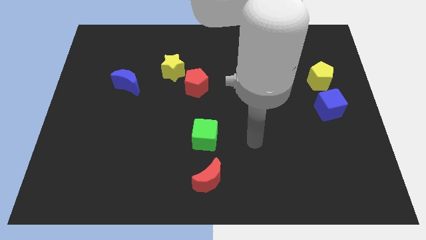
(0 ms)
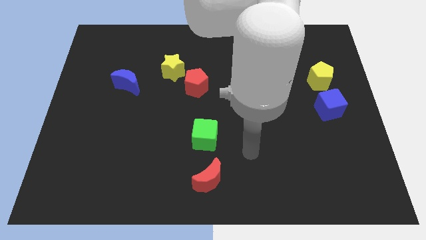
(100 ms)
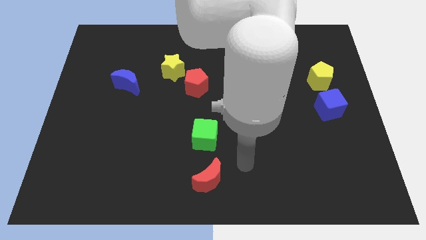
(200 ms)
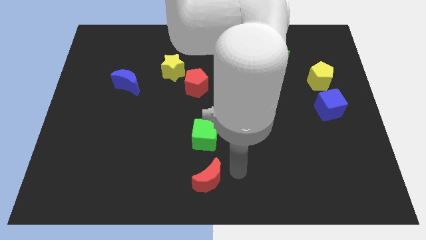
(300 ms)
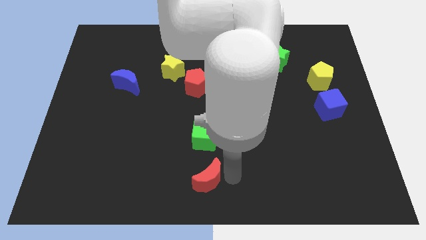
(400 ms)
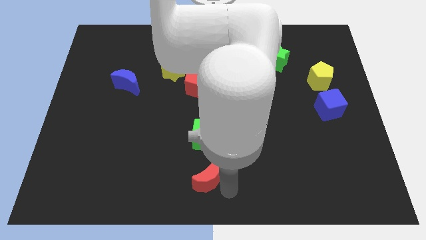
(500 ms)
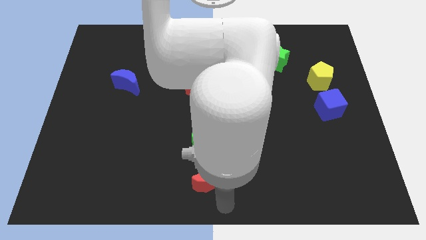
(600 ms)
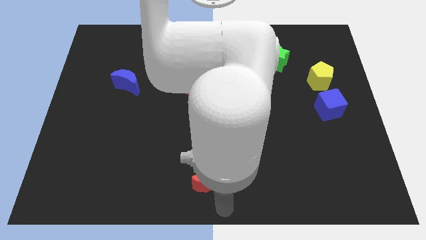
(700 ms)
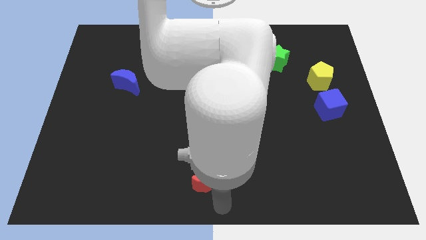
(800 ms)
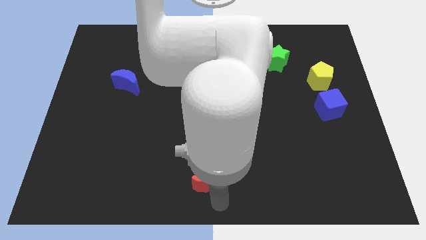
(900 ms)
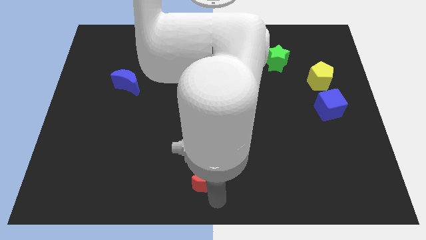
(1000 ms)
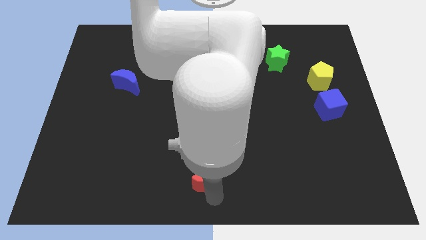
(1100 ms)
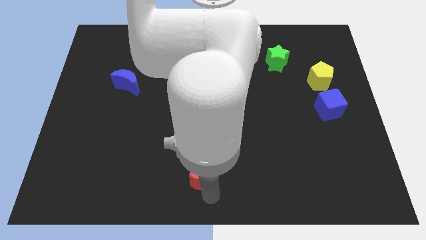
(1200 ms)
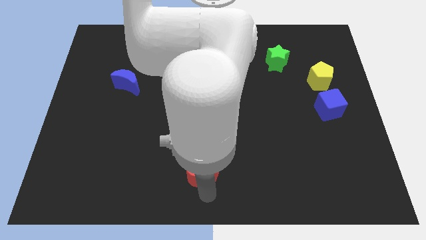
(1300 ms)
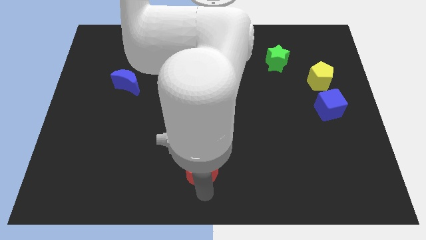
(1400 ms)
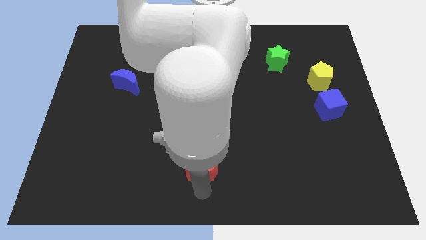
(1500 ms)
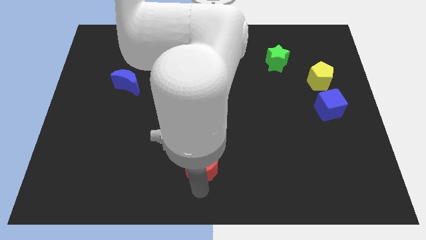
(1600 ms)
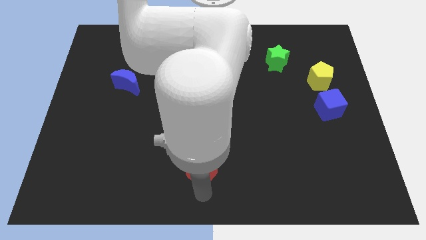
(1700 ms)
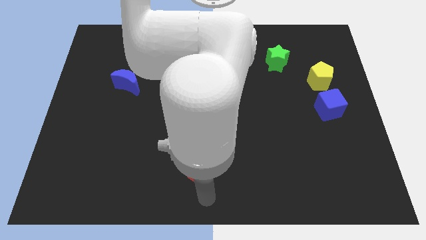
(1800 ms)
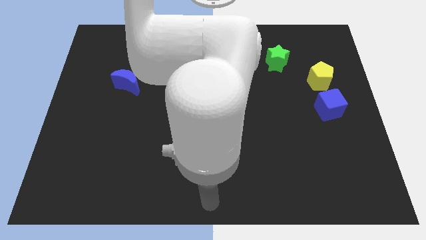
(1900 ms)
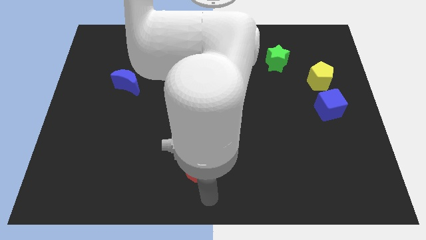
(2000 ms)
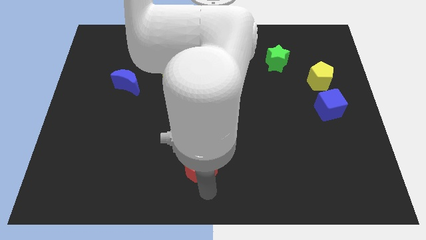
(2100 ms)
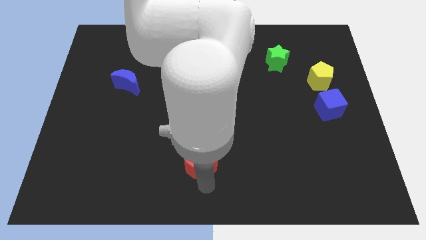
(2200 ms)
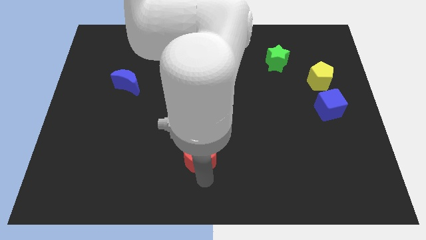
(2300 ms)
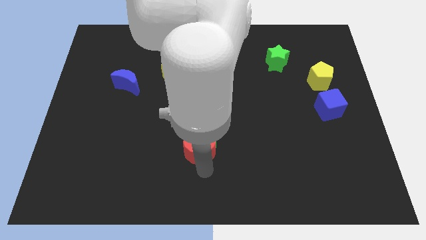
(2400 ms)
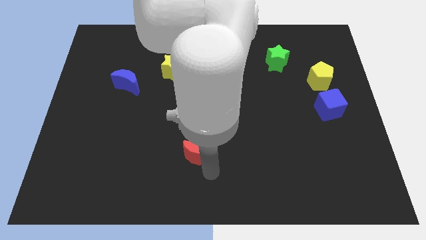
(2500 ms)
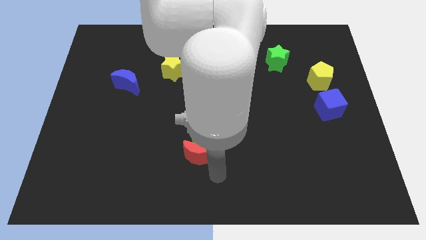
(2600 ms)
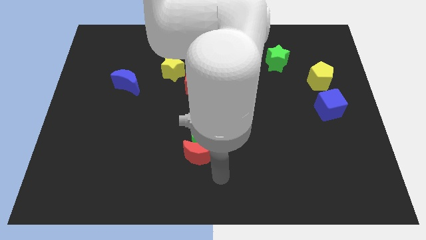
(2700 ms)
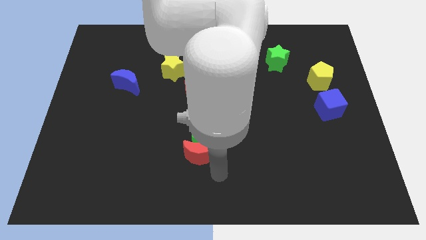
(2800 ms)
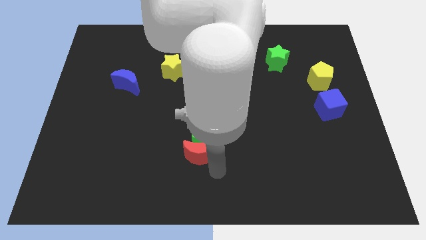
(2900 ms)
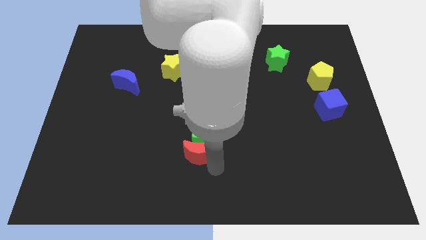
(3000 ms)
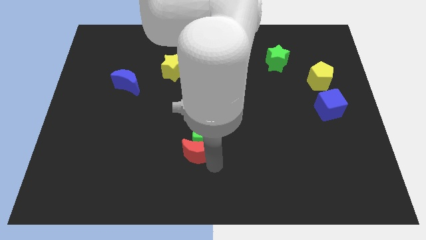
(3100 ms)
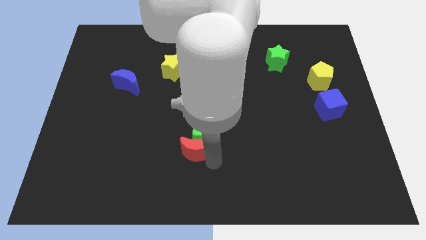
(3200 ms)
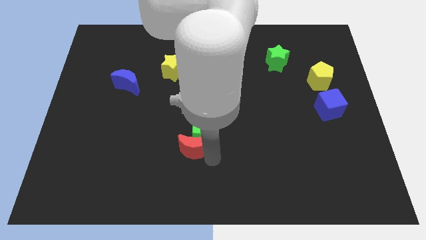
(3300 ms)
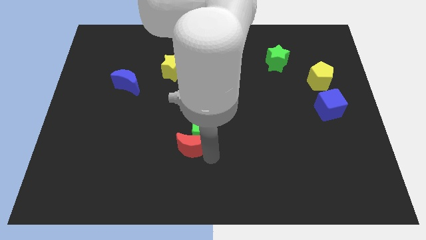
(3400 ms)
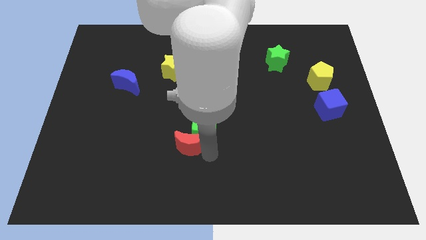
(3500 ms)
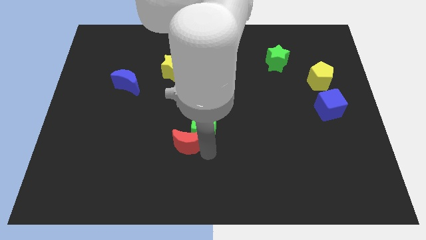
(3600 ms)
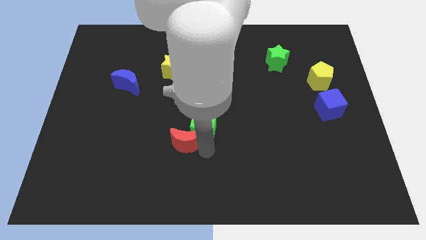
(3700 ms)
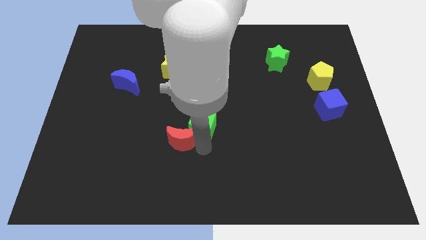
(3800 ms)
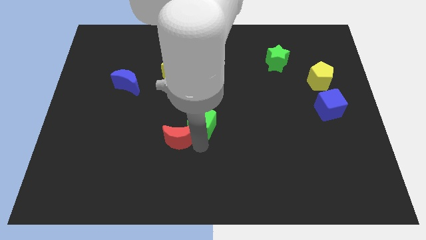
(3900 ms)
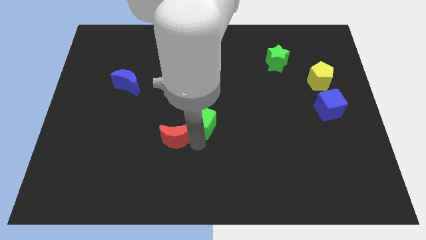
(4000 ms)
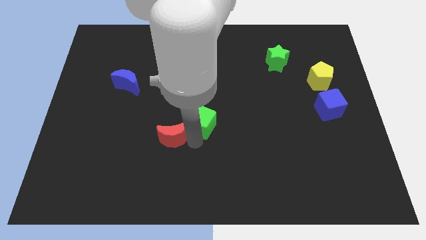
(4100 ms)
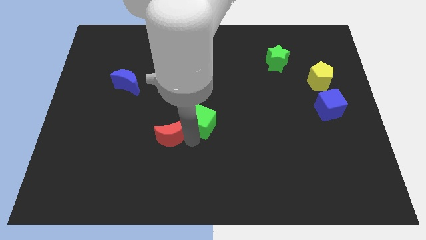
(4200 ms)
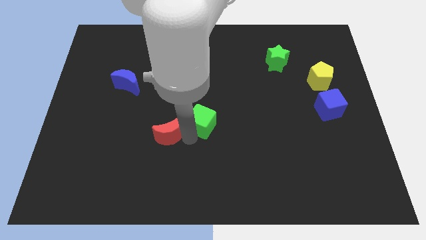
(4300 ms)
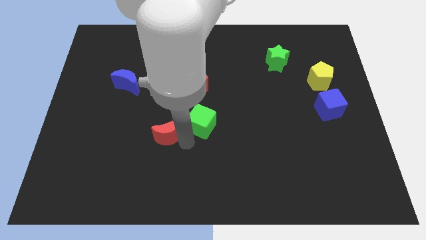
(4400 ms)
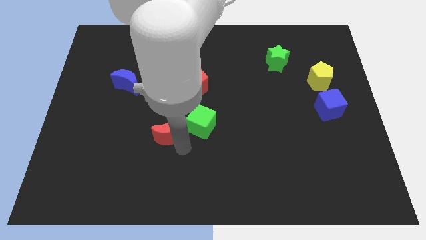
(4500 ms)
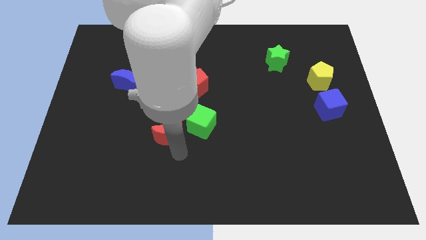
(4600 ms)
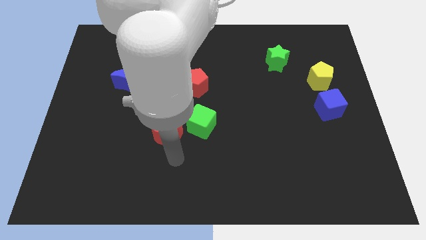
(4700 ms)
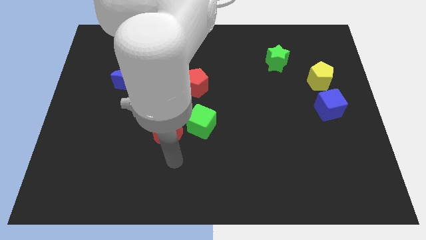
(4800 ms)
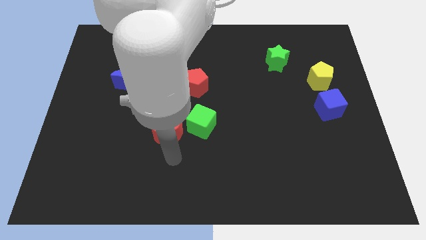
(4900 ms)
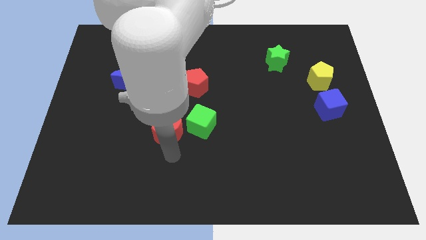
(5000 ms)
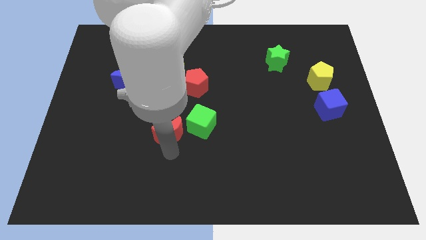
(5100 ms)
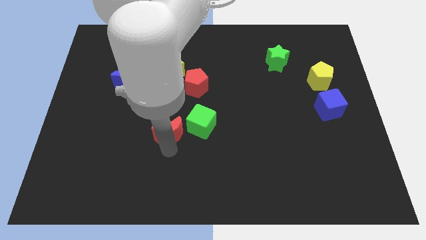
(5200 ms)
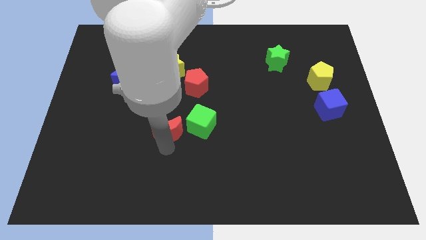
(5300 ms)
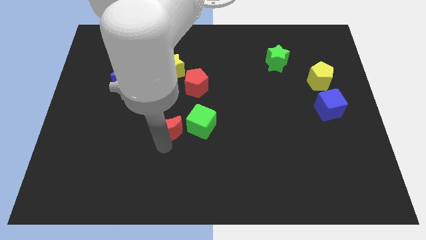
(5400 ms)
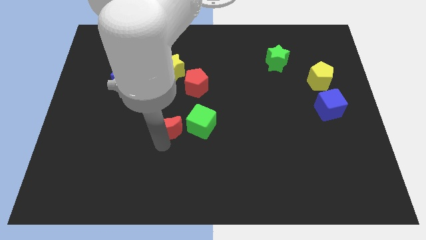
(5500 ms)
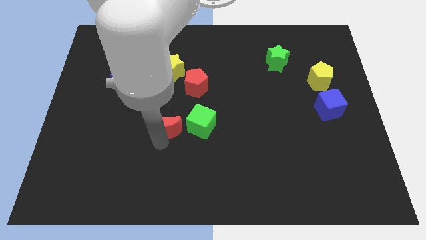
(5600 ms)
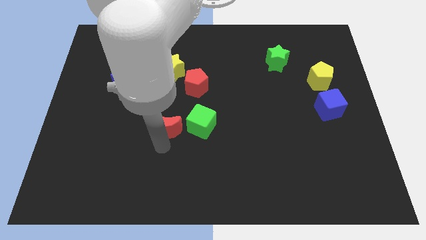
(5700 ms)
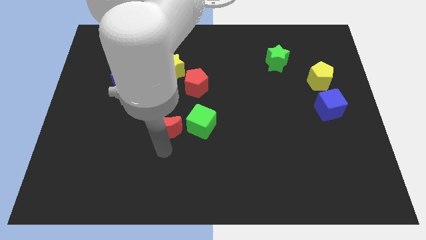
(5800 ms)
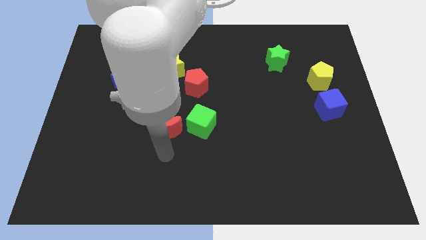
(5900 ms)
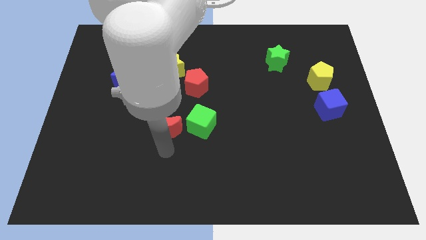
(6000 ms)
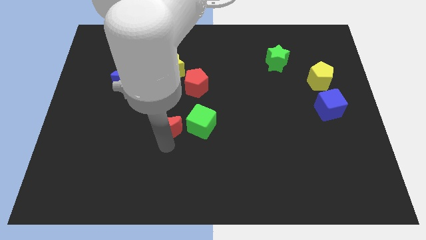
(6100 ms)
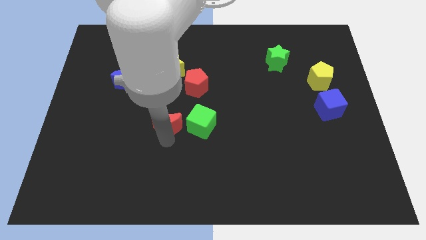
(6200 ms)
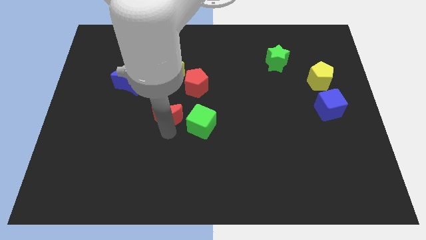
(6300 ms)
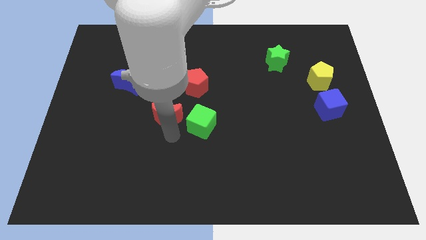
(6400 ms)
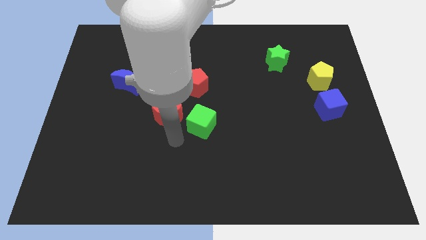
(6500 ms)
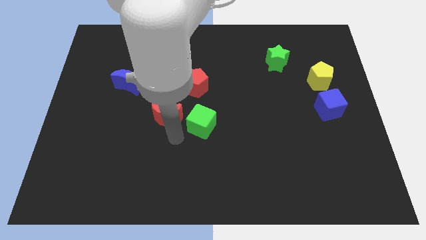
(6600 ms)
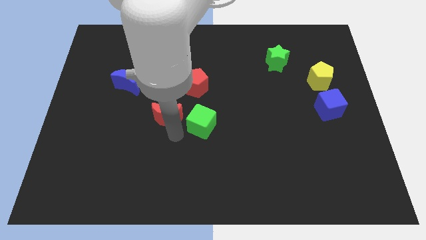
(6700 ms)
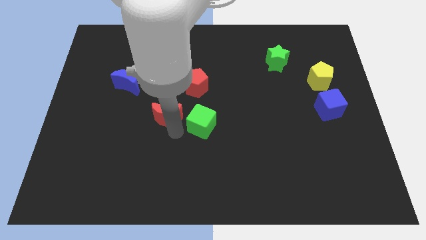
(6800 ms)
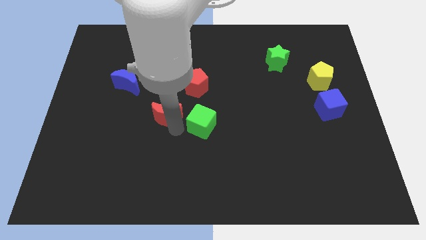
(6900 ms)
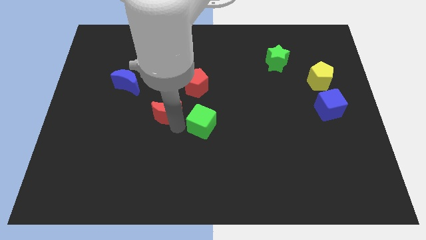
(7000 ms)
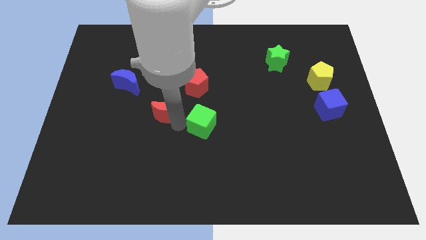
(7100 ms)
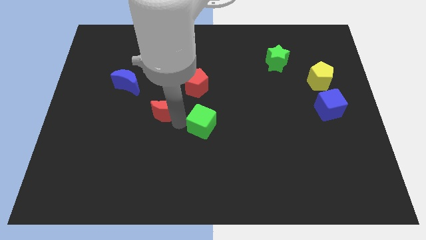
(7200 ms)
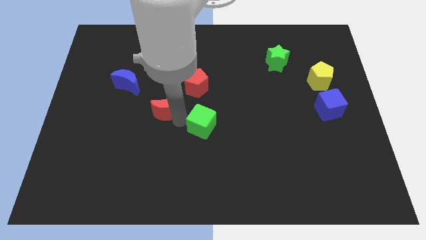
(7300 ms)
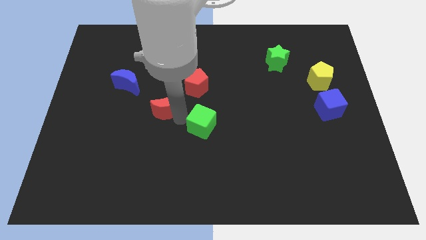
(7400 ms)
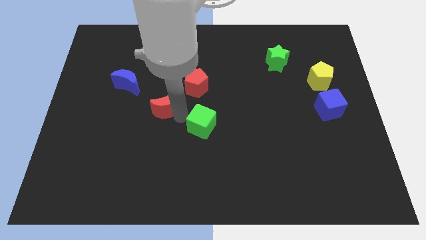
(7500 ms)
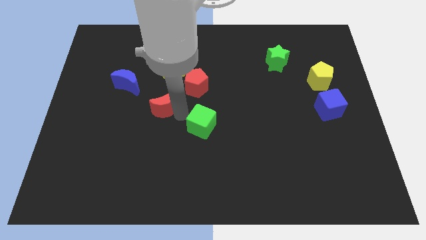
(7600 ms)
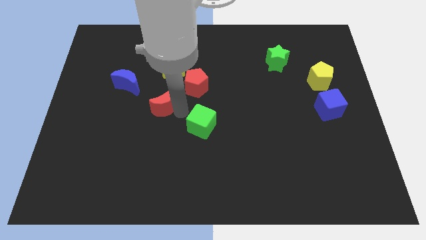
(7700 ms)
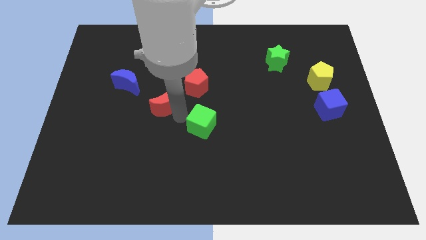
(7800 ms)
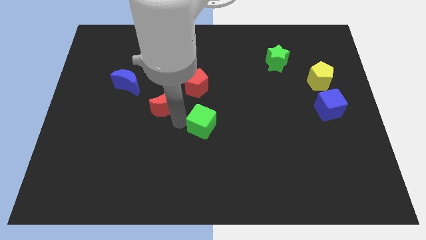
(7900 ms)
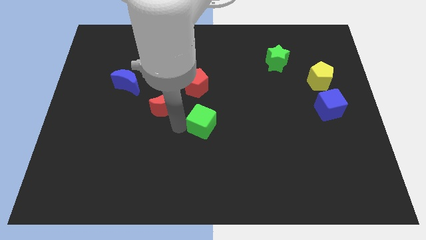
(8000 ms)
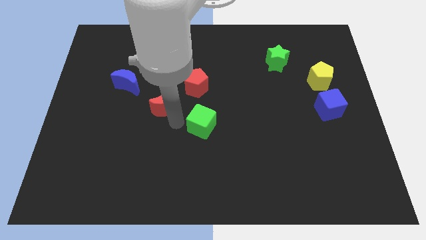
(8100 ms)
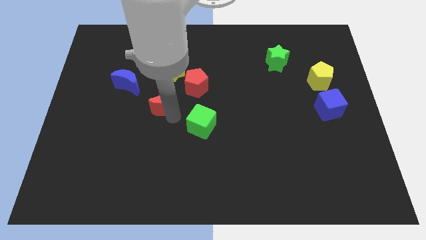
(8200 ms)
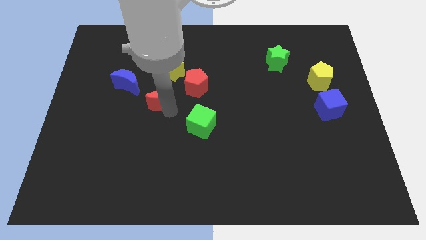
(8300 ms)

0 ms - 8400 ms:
put the red moon to the left of the red pentagon
